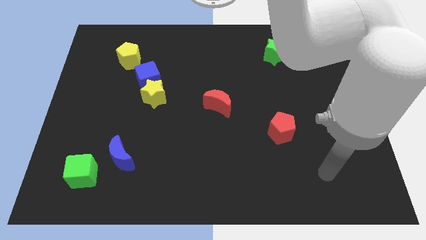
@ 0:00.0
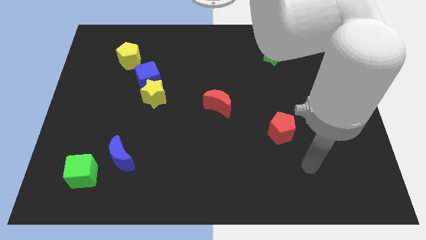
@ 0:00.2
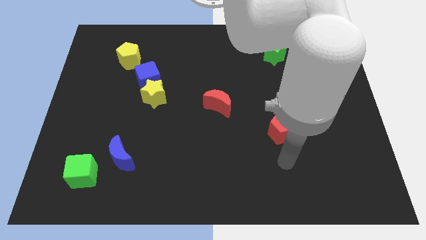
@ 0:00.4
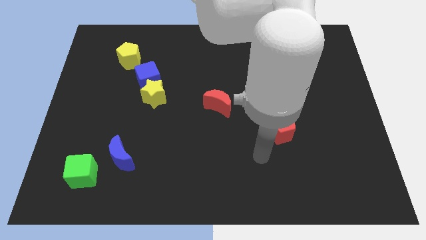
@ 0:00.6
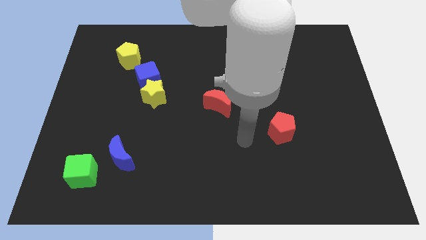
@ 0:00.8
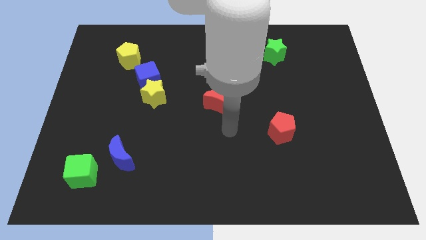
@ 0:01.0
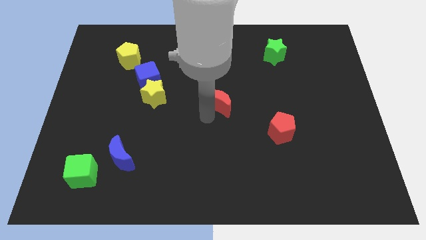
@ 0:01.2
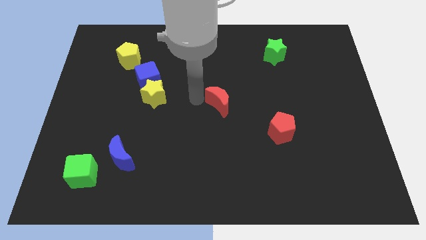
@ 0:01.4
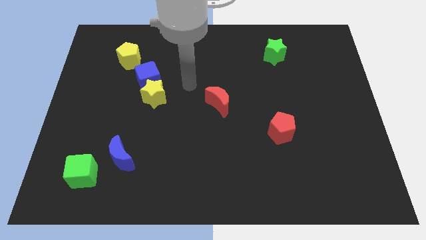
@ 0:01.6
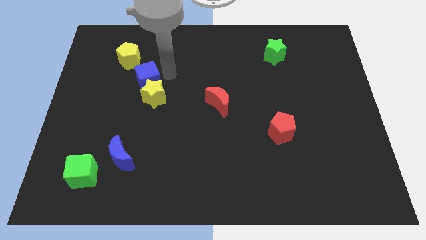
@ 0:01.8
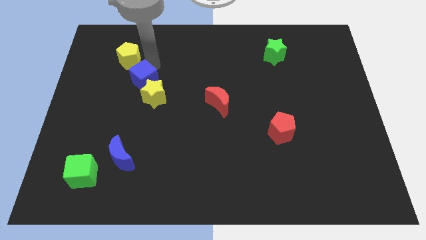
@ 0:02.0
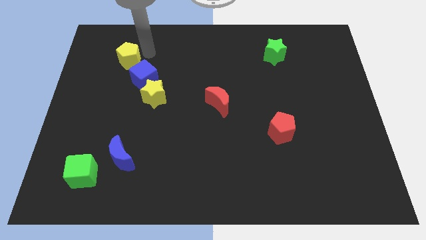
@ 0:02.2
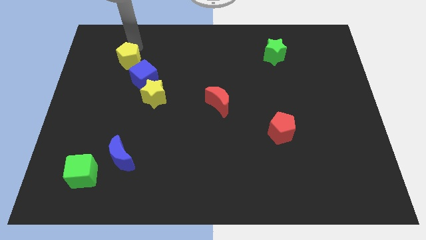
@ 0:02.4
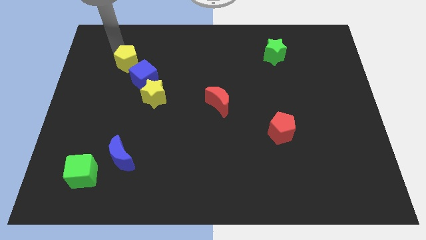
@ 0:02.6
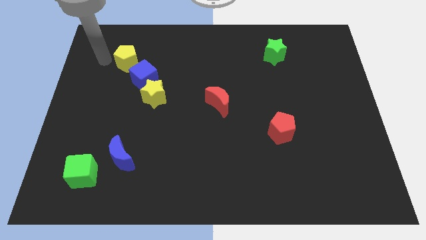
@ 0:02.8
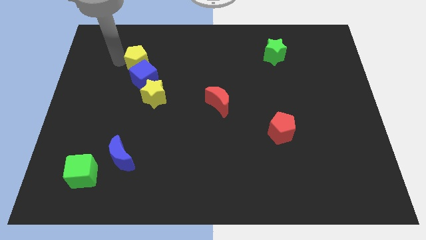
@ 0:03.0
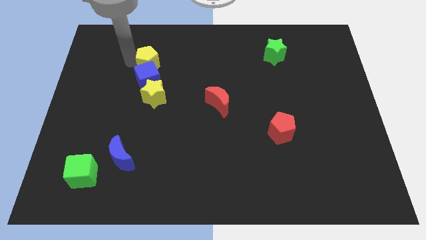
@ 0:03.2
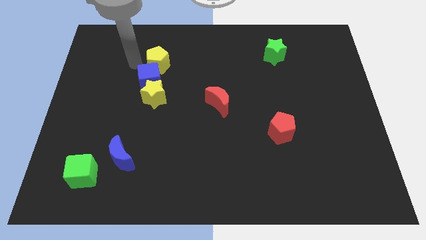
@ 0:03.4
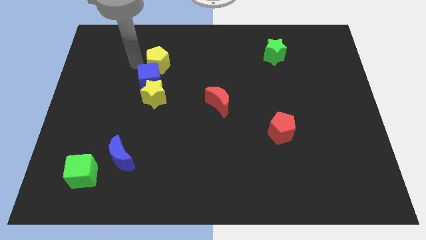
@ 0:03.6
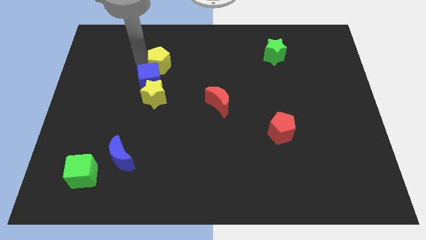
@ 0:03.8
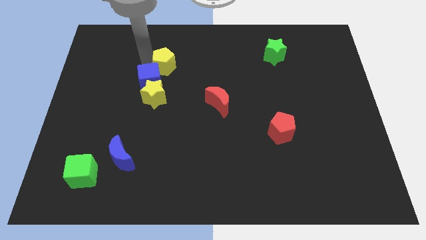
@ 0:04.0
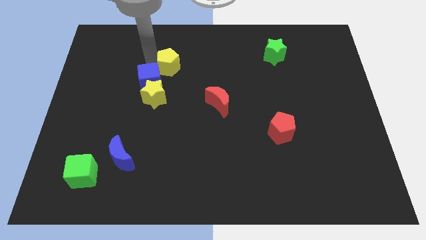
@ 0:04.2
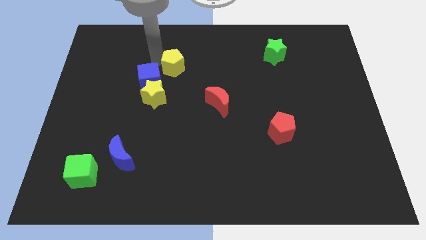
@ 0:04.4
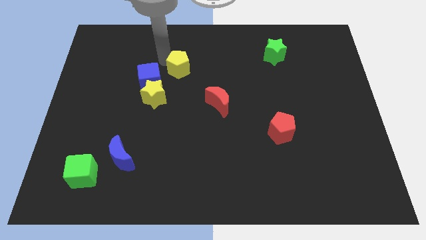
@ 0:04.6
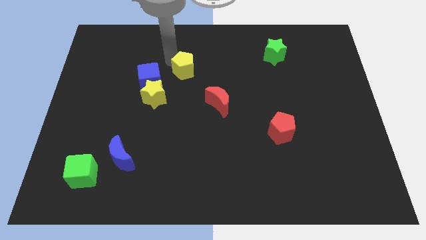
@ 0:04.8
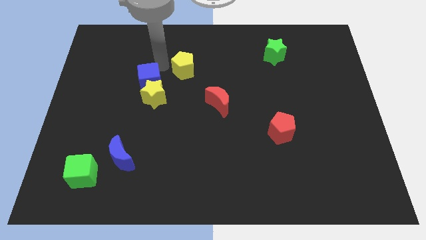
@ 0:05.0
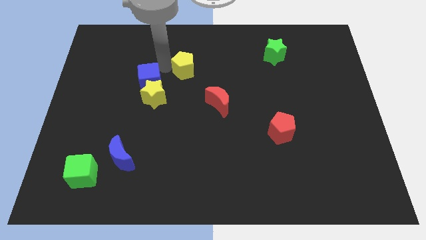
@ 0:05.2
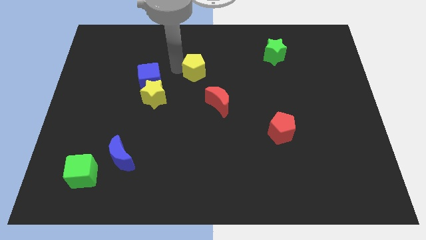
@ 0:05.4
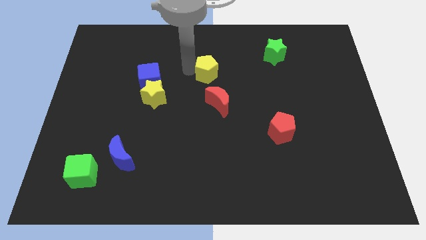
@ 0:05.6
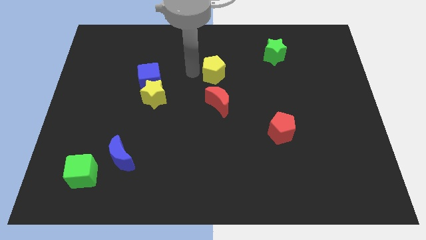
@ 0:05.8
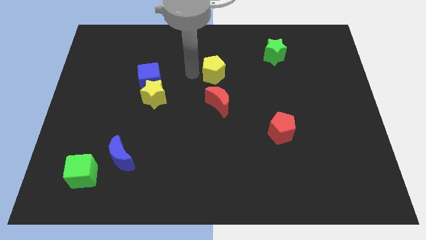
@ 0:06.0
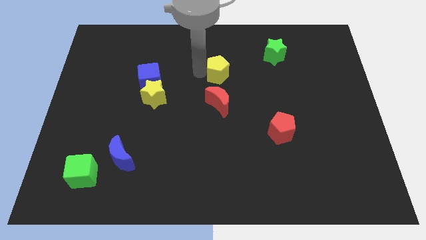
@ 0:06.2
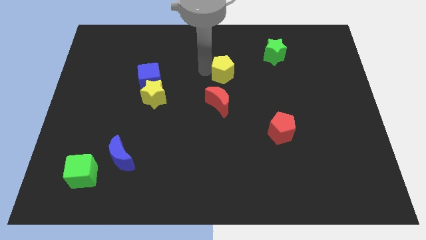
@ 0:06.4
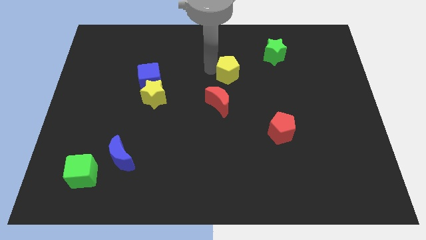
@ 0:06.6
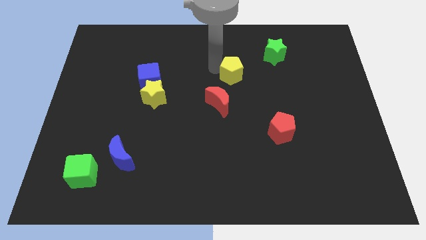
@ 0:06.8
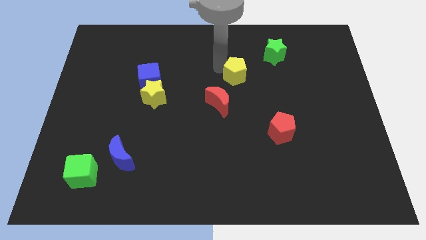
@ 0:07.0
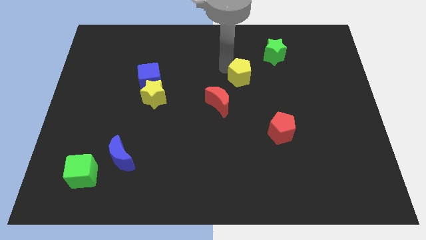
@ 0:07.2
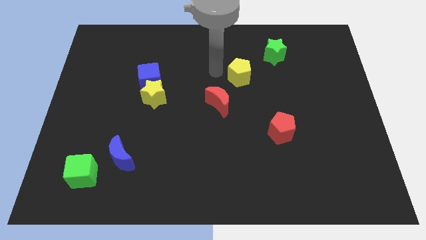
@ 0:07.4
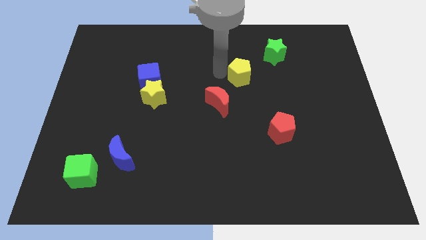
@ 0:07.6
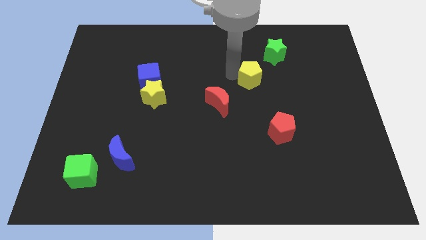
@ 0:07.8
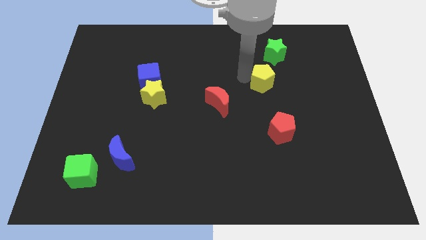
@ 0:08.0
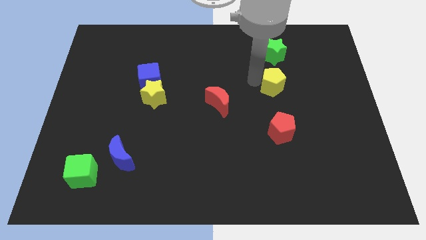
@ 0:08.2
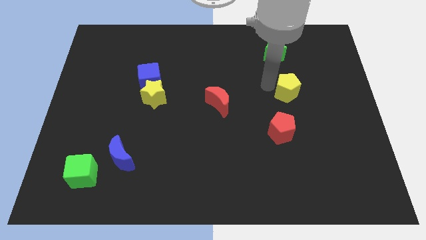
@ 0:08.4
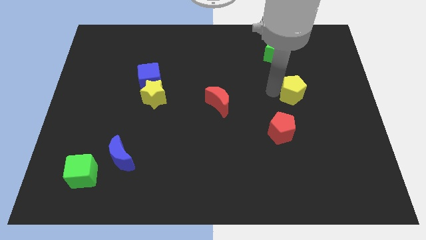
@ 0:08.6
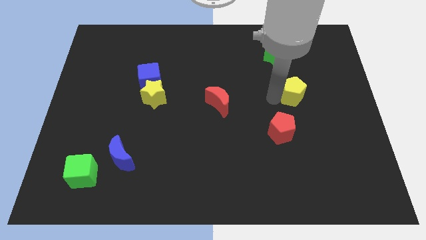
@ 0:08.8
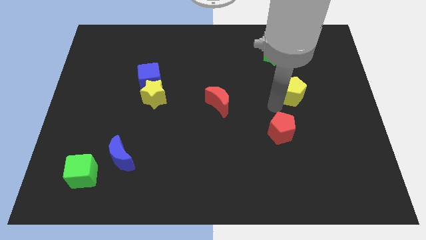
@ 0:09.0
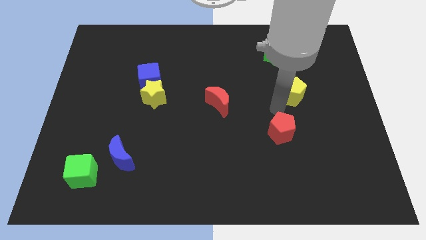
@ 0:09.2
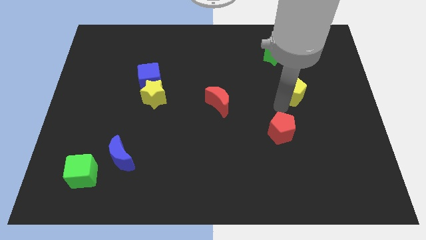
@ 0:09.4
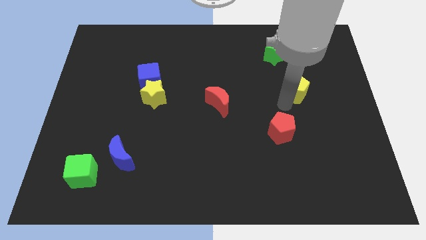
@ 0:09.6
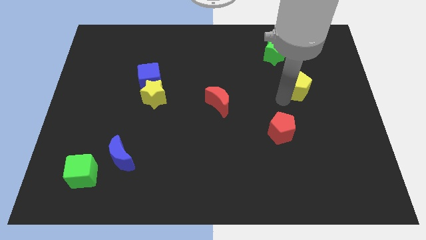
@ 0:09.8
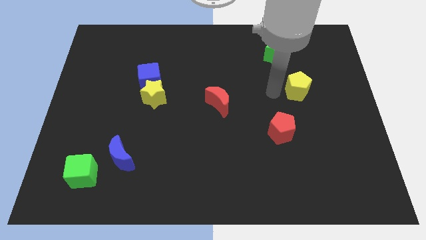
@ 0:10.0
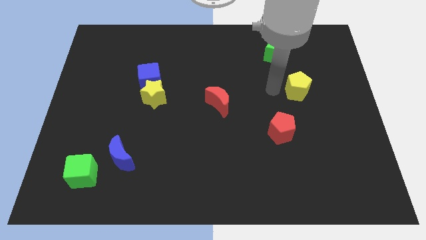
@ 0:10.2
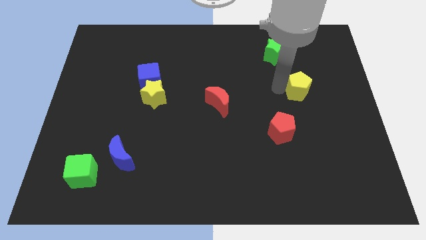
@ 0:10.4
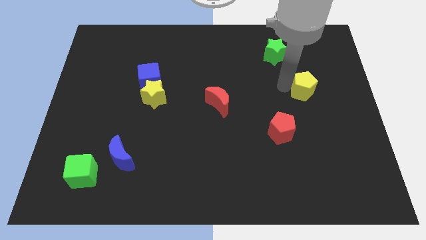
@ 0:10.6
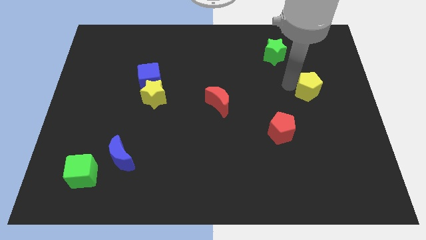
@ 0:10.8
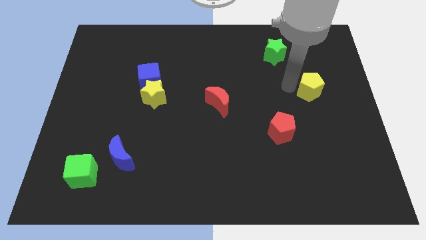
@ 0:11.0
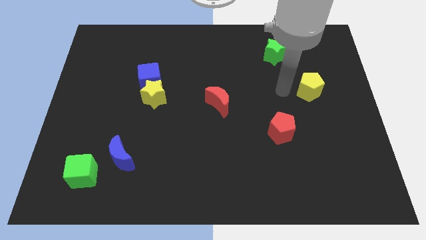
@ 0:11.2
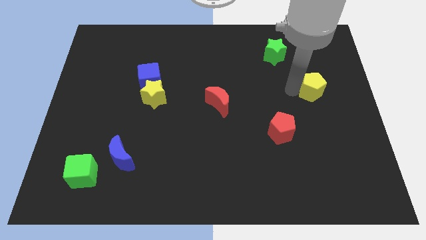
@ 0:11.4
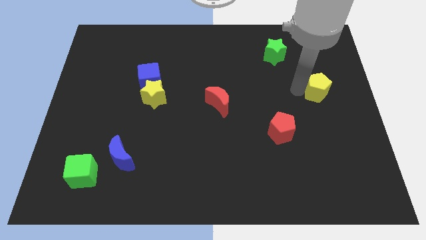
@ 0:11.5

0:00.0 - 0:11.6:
put the yellow pentagon to the right side

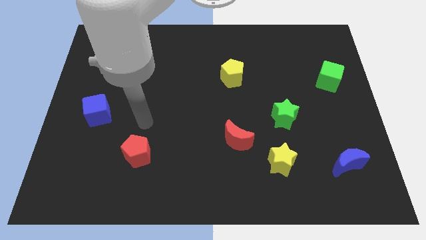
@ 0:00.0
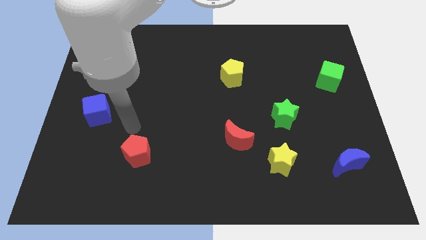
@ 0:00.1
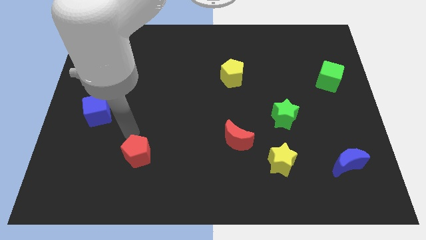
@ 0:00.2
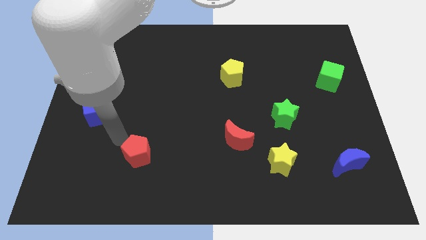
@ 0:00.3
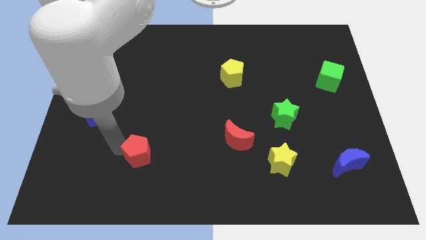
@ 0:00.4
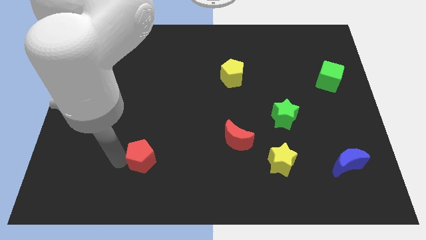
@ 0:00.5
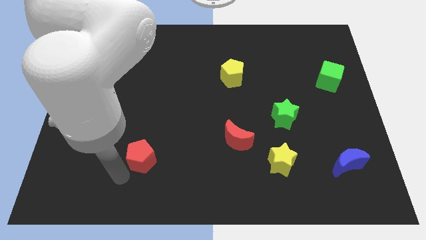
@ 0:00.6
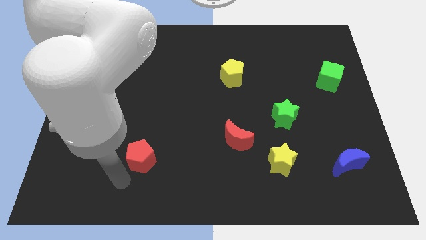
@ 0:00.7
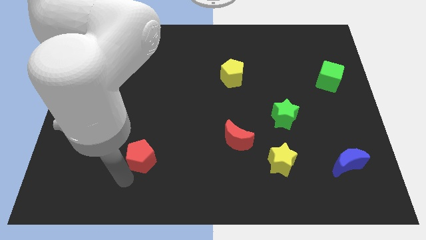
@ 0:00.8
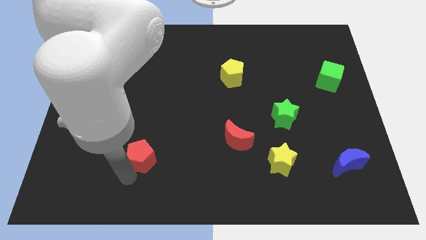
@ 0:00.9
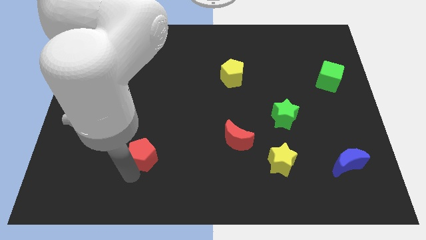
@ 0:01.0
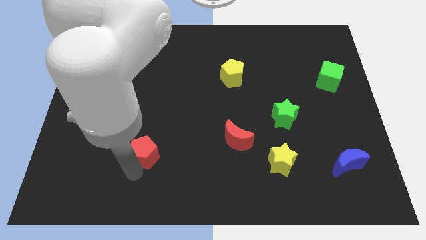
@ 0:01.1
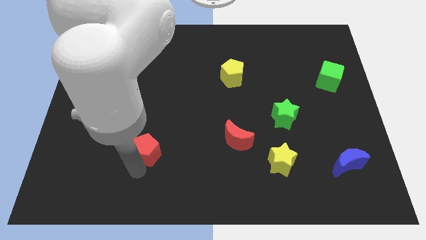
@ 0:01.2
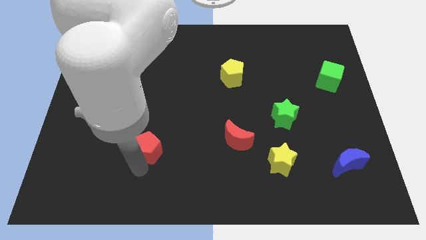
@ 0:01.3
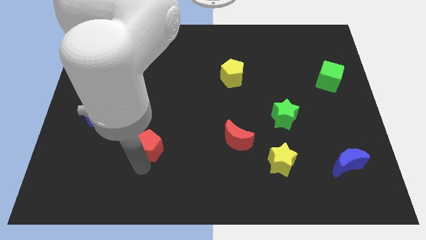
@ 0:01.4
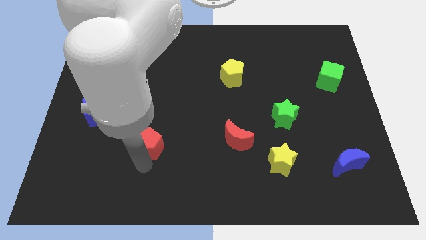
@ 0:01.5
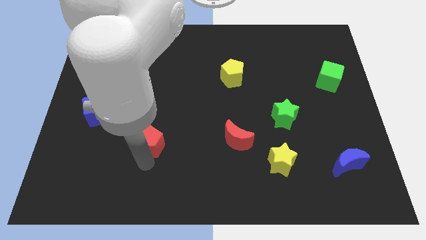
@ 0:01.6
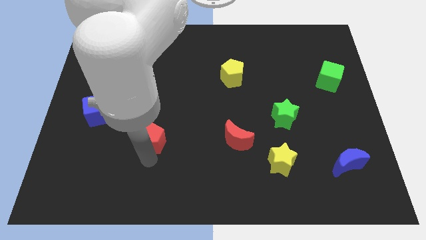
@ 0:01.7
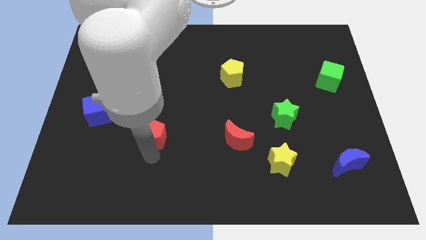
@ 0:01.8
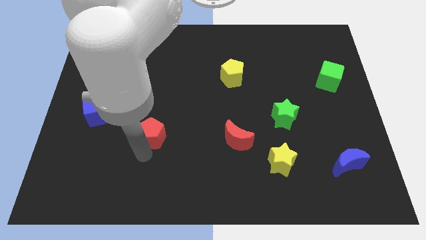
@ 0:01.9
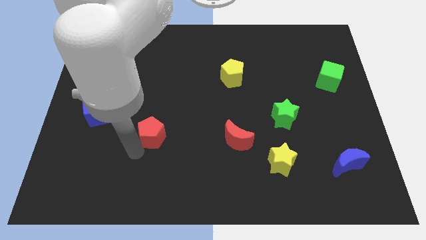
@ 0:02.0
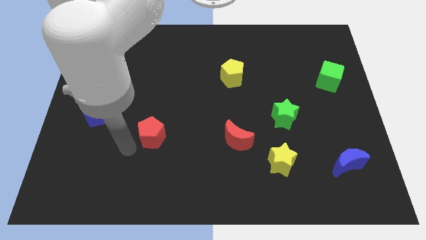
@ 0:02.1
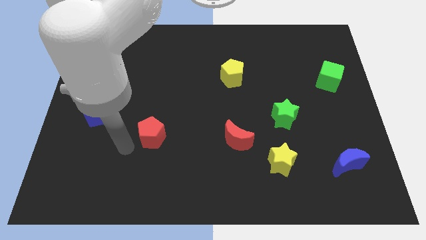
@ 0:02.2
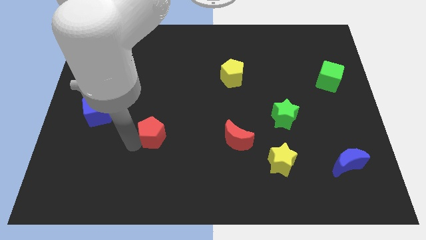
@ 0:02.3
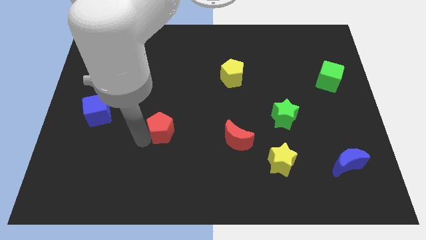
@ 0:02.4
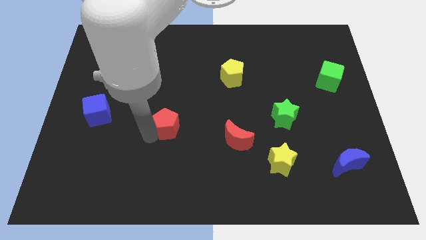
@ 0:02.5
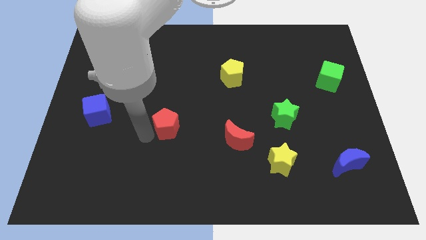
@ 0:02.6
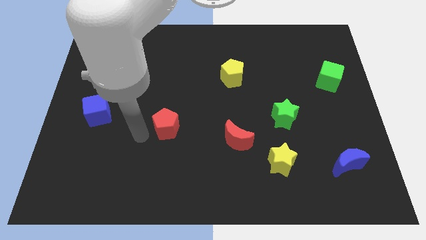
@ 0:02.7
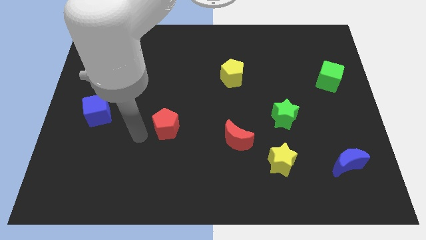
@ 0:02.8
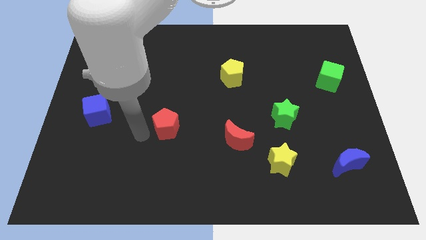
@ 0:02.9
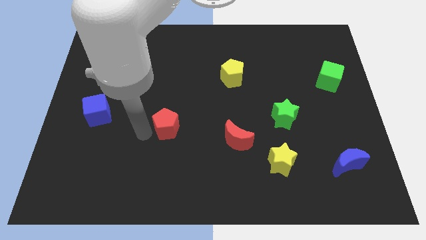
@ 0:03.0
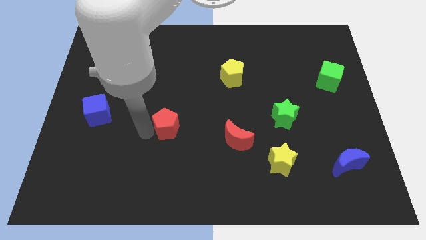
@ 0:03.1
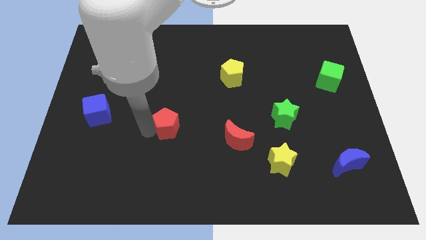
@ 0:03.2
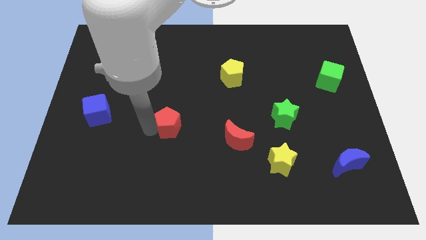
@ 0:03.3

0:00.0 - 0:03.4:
put the red pentagon to the middle of the board
